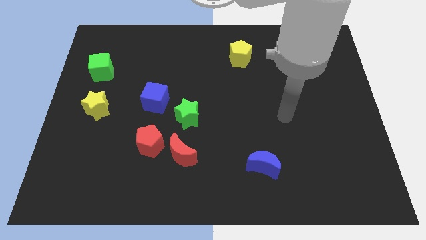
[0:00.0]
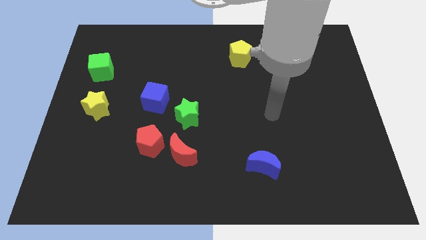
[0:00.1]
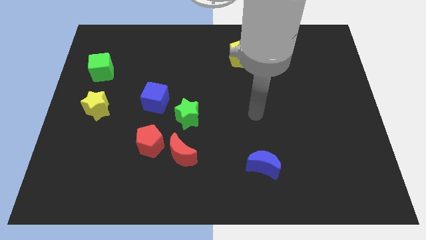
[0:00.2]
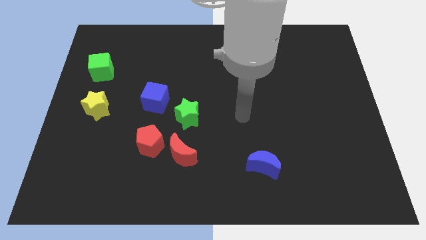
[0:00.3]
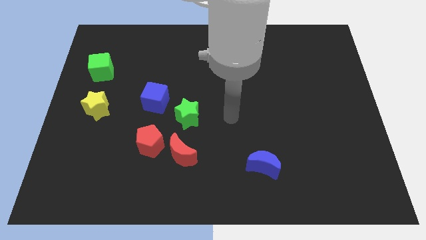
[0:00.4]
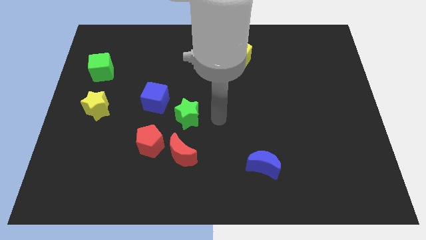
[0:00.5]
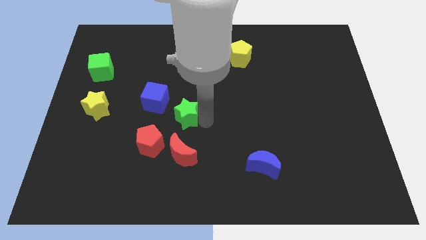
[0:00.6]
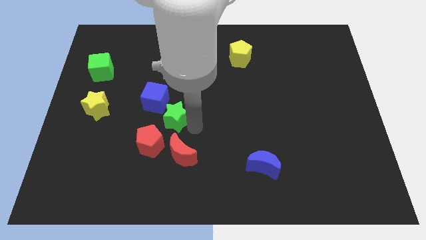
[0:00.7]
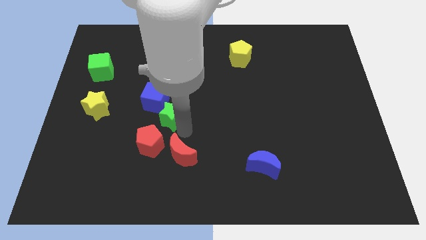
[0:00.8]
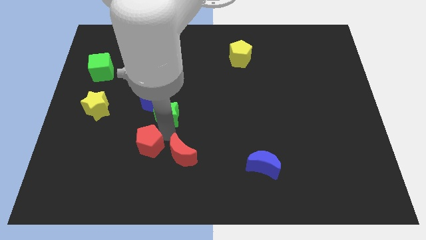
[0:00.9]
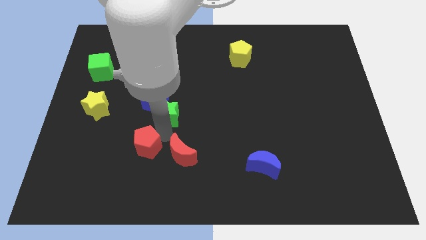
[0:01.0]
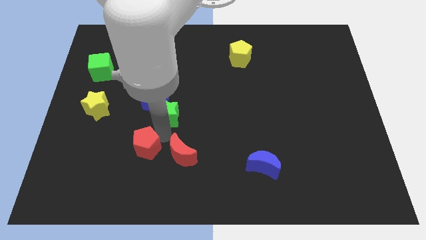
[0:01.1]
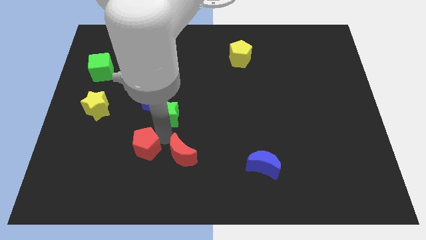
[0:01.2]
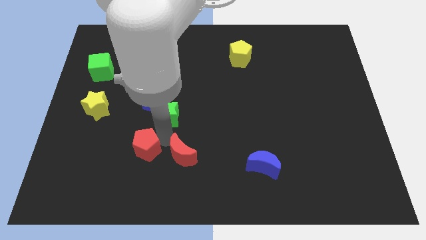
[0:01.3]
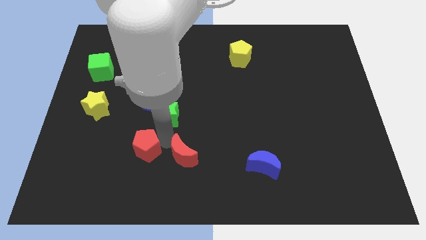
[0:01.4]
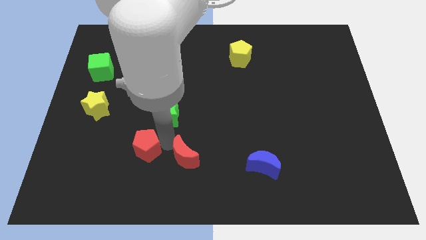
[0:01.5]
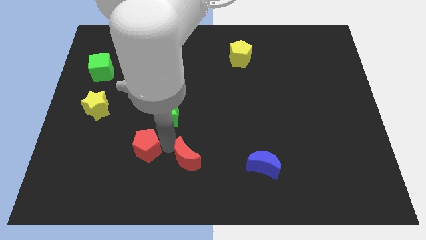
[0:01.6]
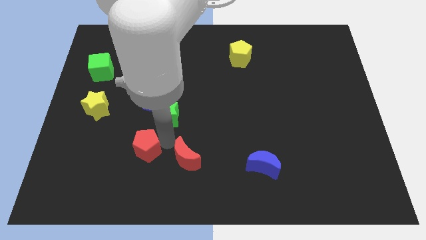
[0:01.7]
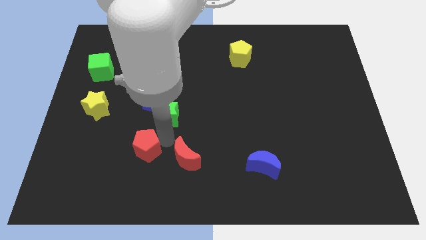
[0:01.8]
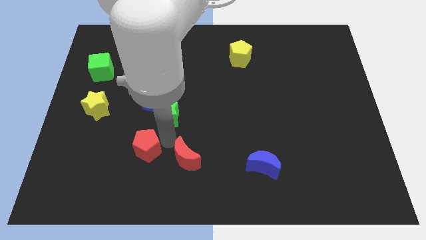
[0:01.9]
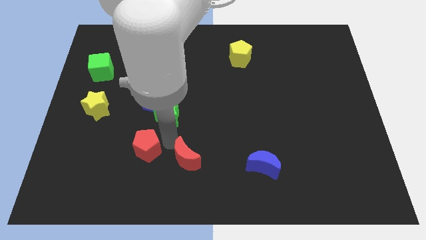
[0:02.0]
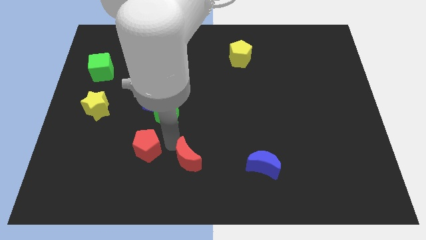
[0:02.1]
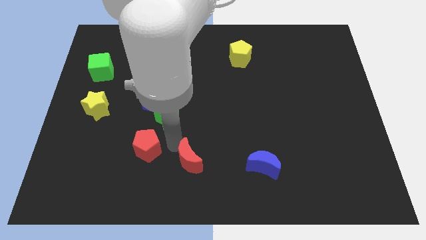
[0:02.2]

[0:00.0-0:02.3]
separate the red moon from the red pentagon and green star

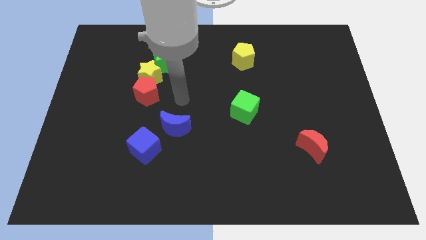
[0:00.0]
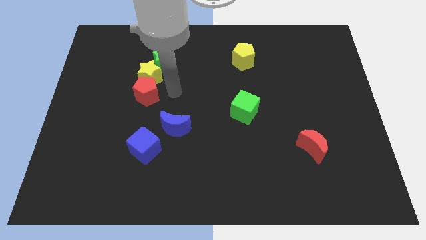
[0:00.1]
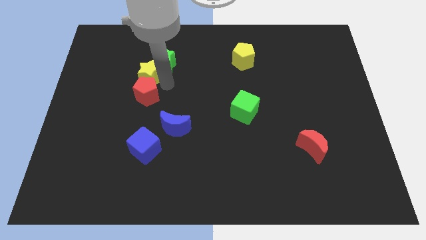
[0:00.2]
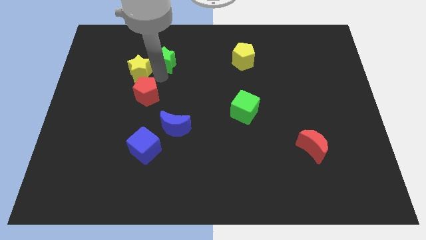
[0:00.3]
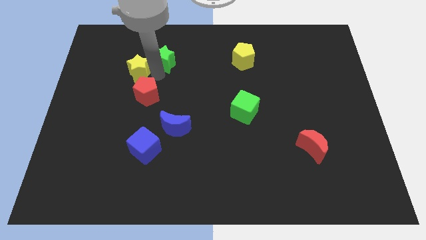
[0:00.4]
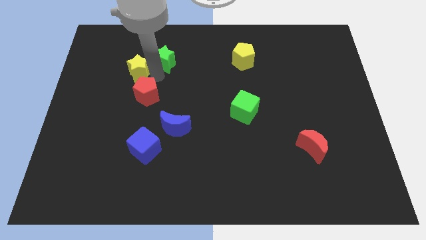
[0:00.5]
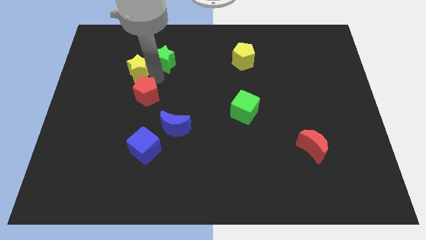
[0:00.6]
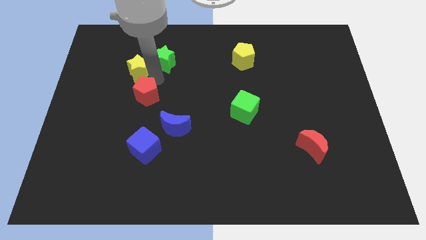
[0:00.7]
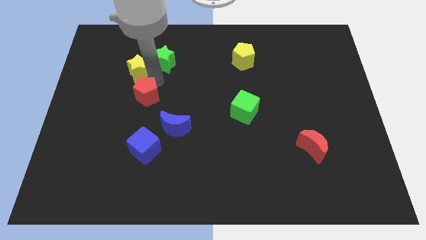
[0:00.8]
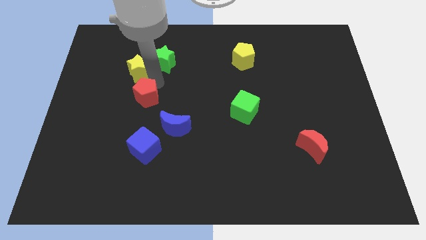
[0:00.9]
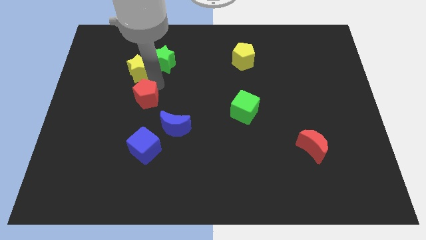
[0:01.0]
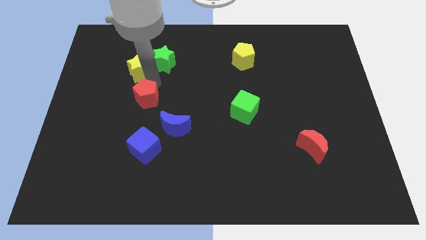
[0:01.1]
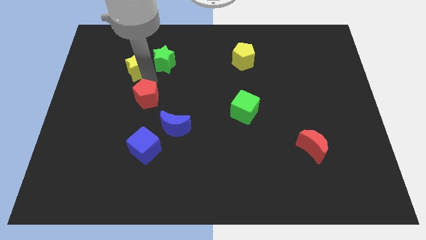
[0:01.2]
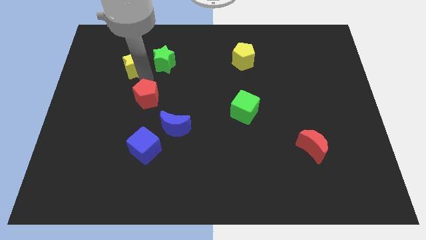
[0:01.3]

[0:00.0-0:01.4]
move the red pentagon away from the yellow star

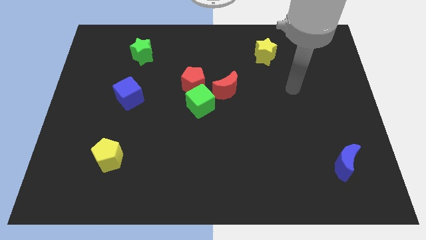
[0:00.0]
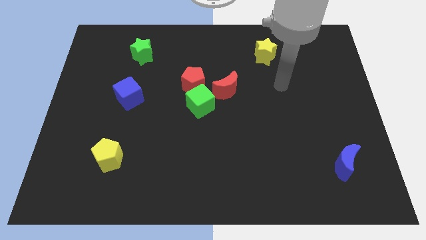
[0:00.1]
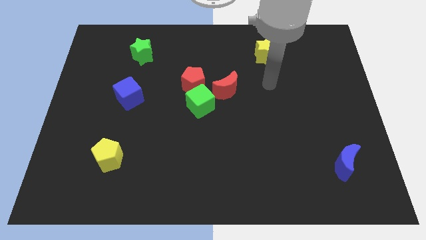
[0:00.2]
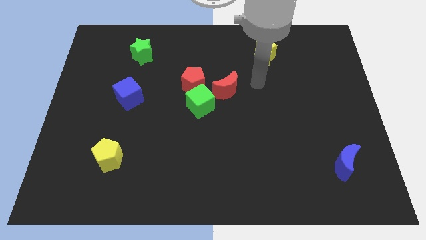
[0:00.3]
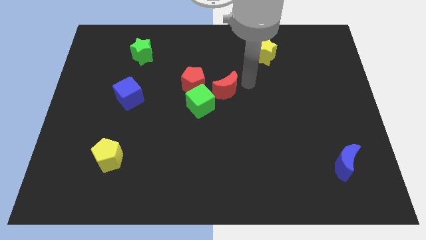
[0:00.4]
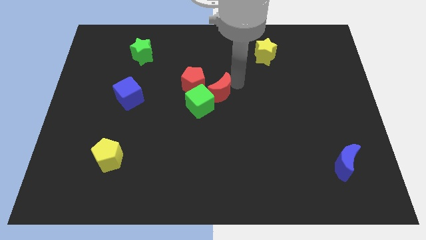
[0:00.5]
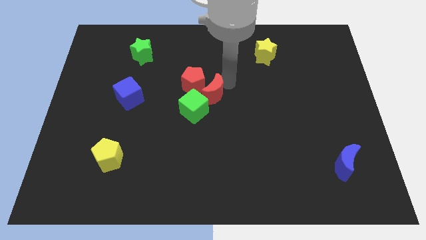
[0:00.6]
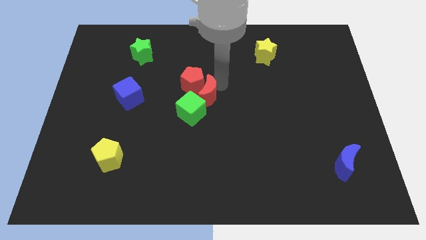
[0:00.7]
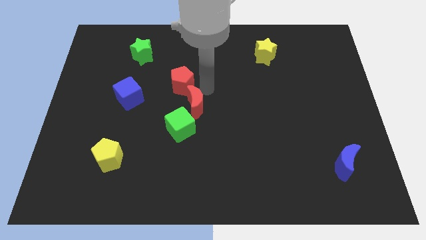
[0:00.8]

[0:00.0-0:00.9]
move the green cube away from the red pentagon and red moon

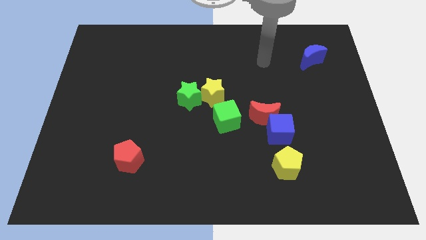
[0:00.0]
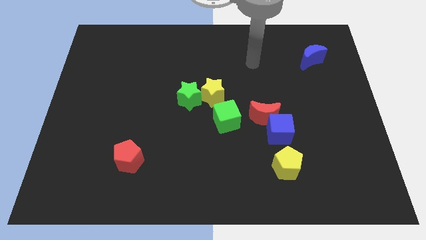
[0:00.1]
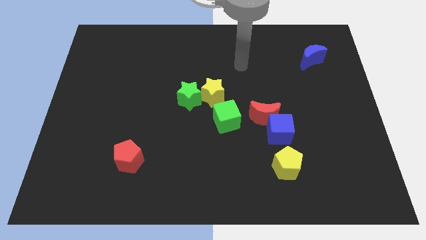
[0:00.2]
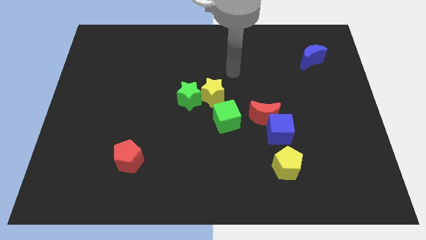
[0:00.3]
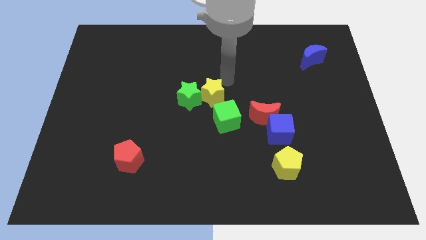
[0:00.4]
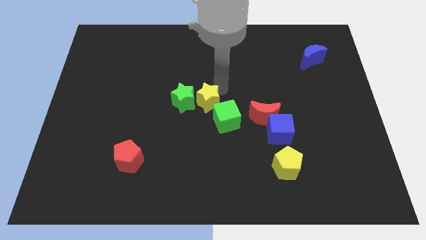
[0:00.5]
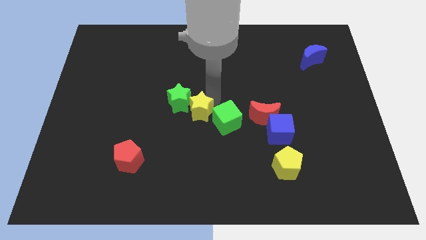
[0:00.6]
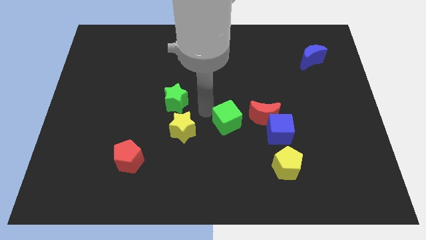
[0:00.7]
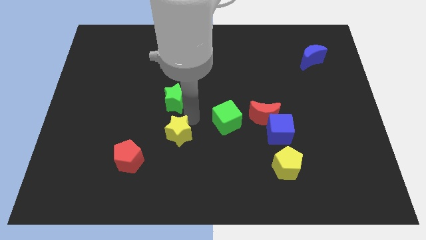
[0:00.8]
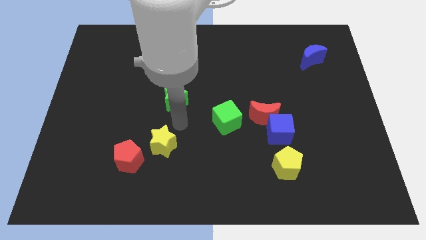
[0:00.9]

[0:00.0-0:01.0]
move the green star away from the yellow star

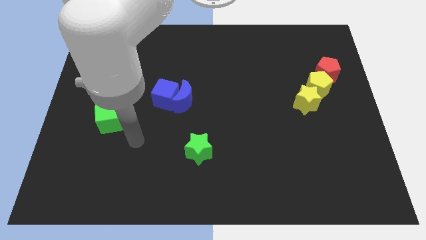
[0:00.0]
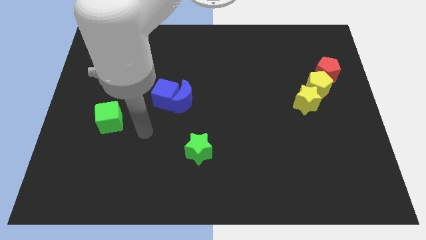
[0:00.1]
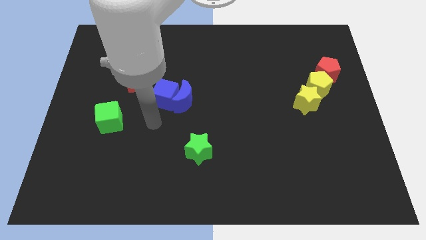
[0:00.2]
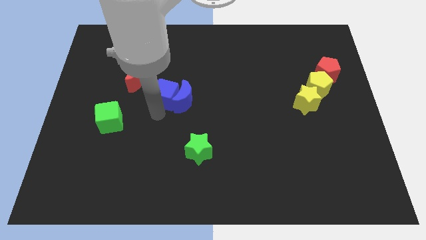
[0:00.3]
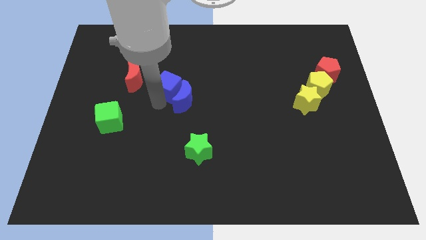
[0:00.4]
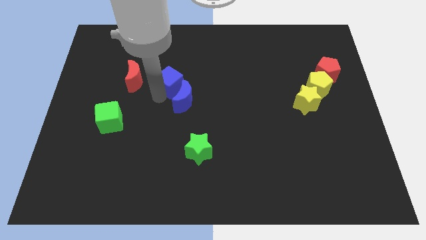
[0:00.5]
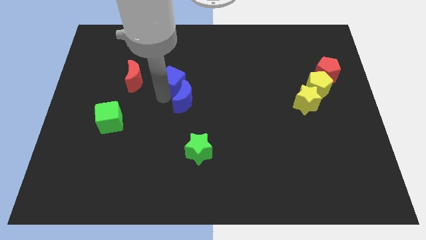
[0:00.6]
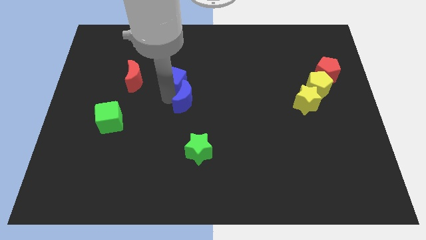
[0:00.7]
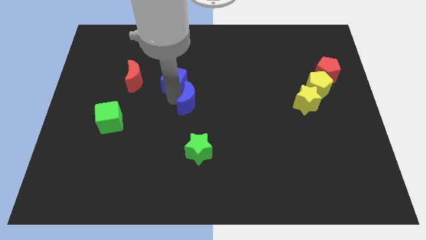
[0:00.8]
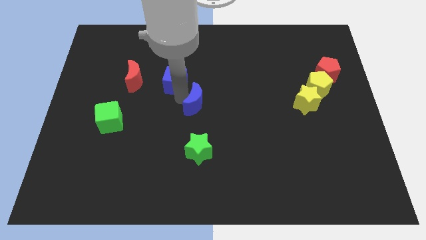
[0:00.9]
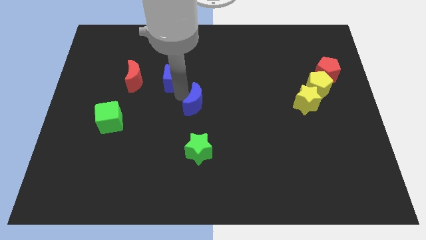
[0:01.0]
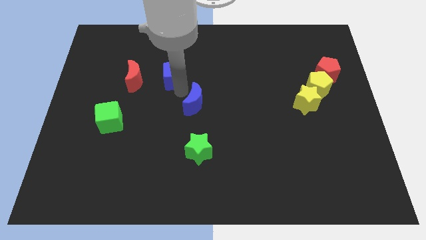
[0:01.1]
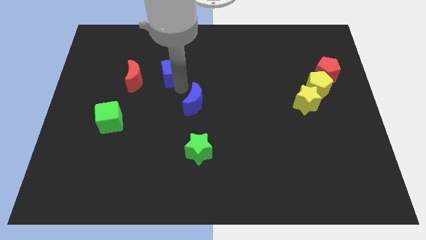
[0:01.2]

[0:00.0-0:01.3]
separate the blue moon from the blue cube

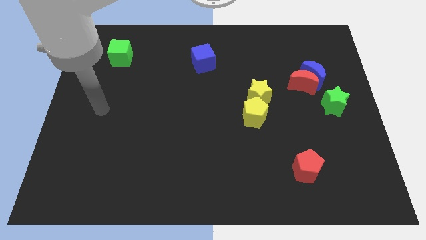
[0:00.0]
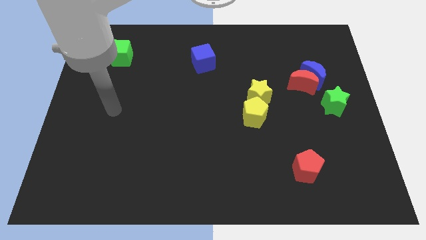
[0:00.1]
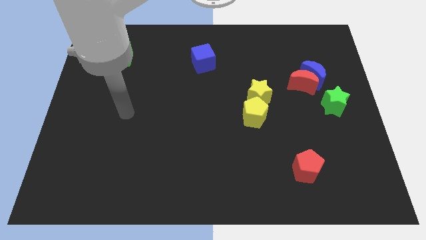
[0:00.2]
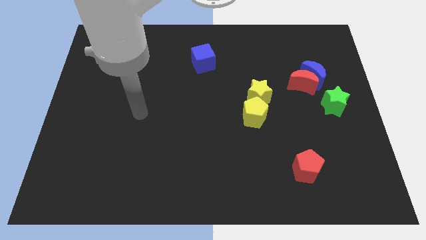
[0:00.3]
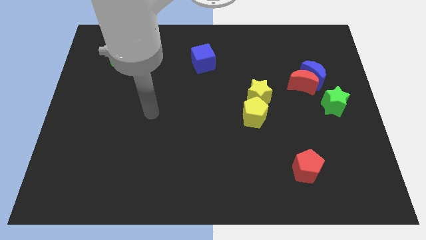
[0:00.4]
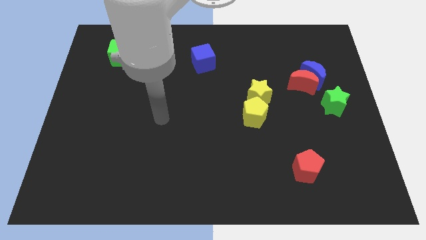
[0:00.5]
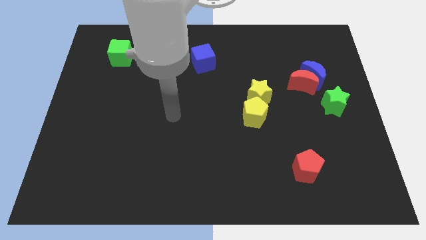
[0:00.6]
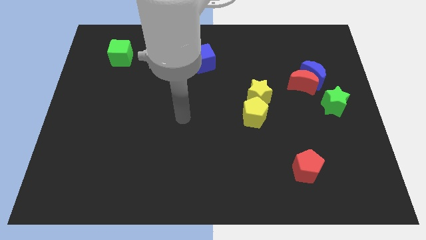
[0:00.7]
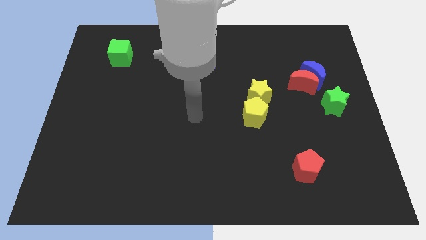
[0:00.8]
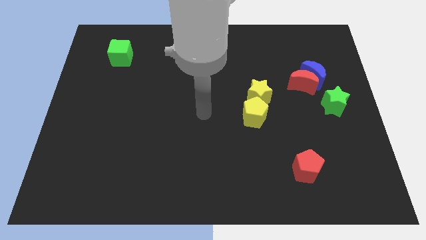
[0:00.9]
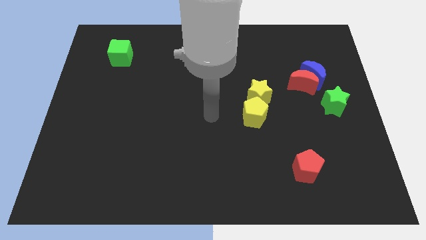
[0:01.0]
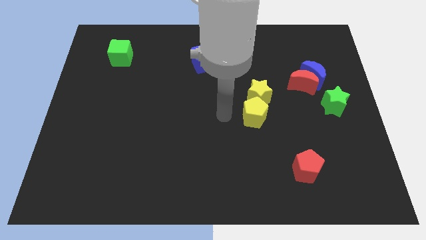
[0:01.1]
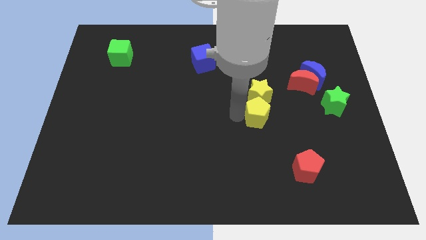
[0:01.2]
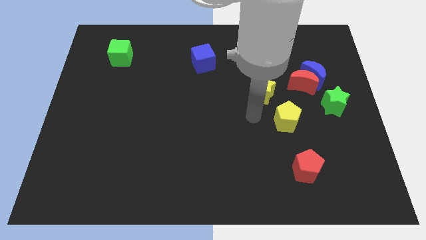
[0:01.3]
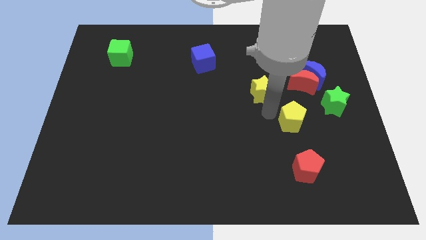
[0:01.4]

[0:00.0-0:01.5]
move the yellow star away from the yellow pentagon

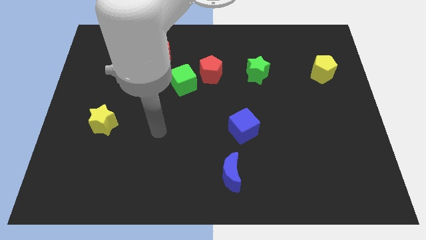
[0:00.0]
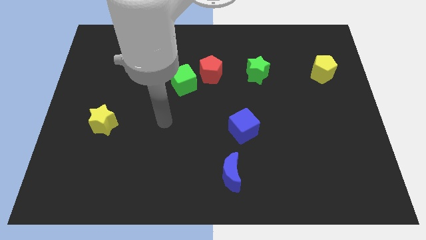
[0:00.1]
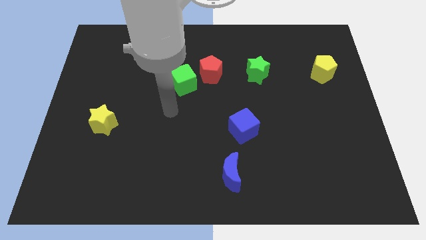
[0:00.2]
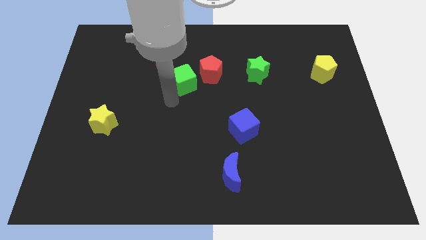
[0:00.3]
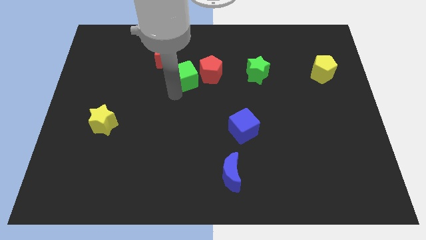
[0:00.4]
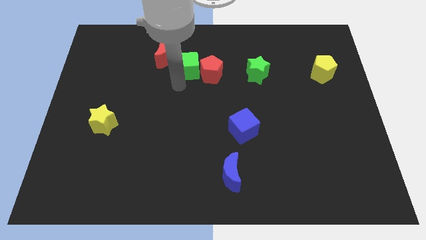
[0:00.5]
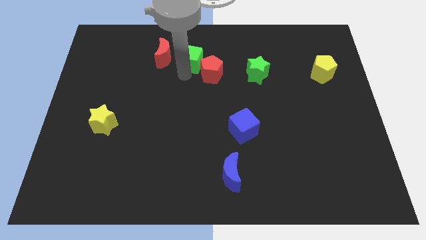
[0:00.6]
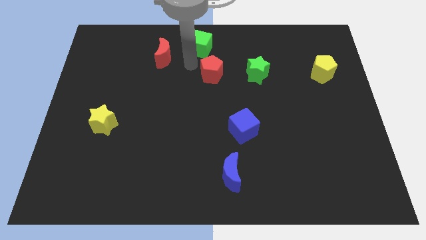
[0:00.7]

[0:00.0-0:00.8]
separate the red pentagon from the green cube
